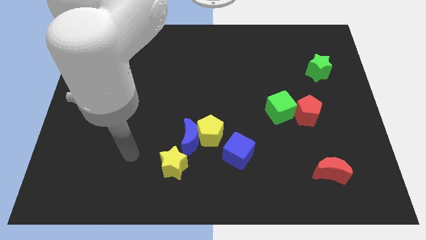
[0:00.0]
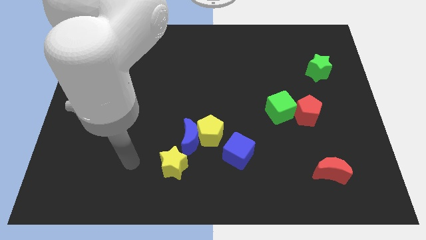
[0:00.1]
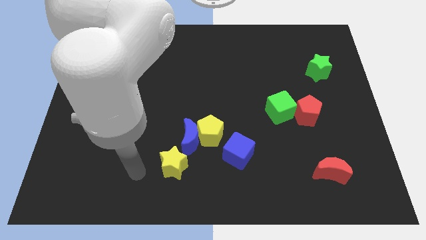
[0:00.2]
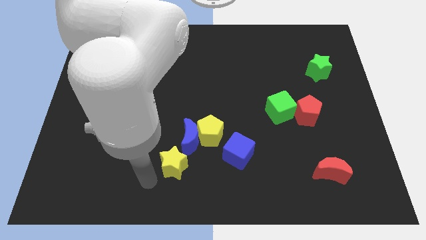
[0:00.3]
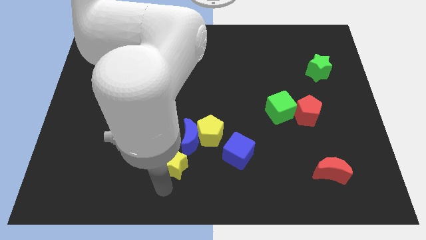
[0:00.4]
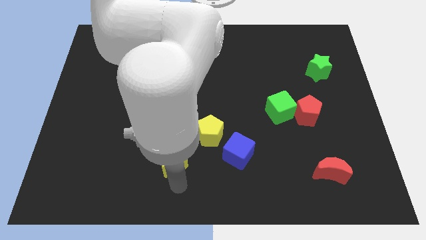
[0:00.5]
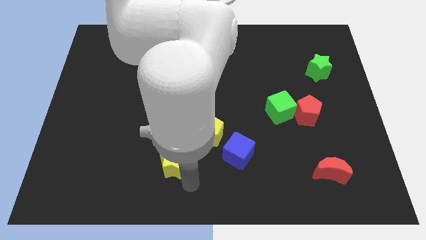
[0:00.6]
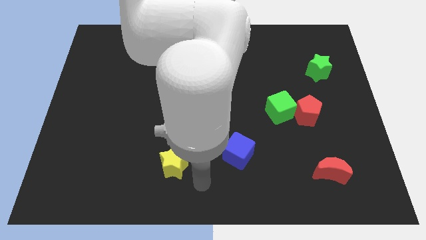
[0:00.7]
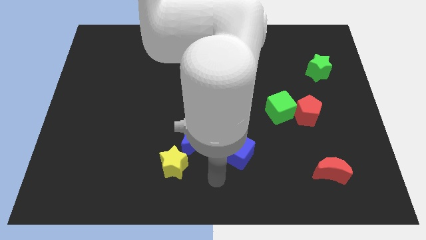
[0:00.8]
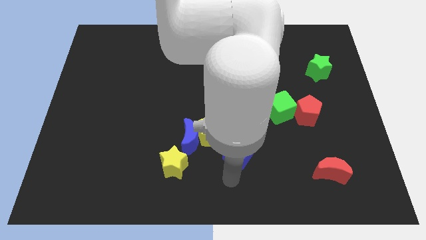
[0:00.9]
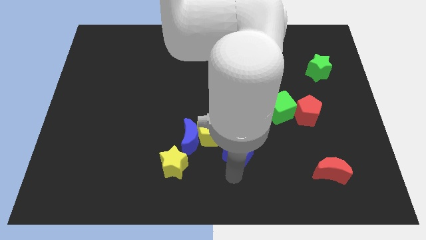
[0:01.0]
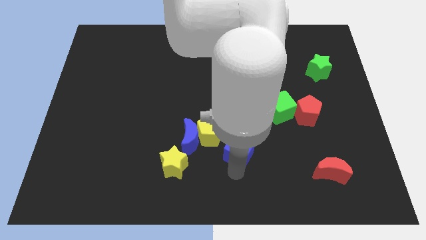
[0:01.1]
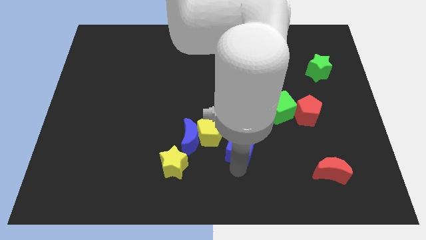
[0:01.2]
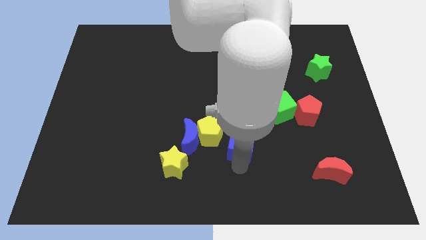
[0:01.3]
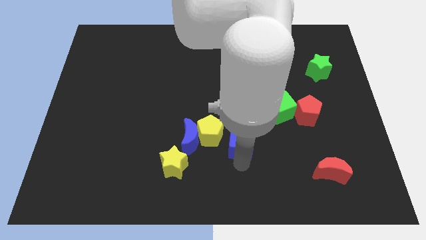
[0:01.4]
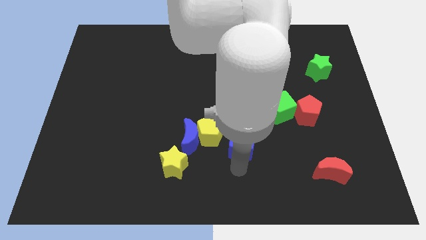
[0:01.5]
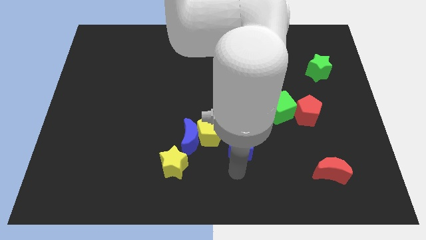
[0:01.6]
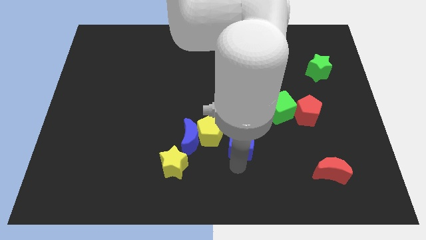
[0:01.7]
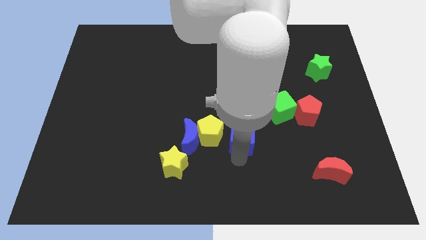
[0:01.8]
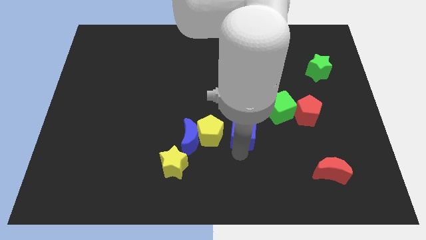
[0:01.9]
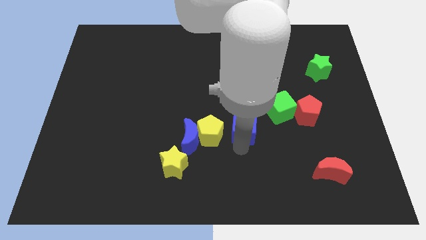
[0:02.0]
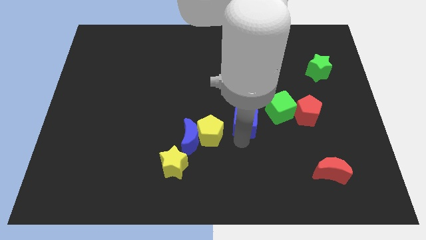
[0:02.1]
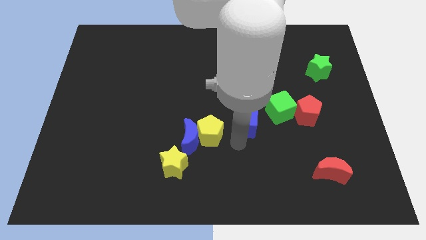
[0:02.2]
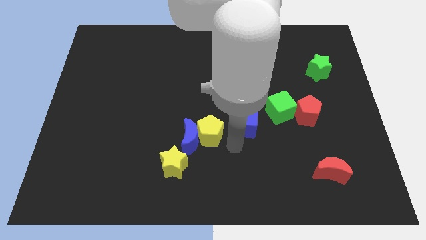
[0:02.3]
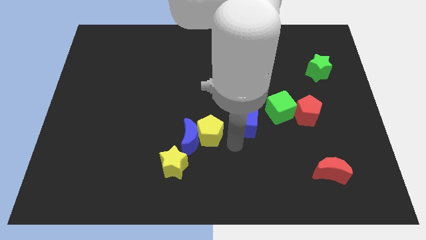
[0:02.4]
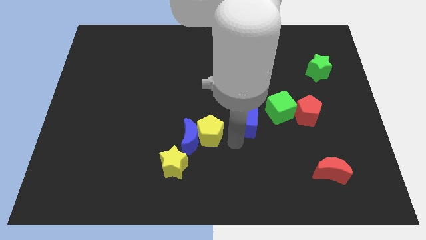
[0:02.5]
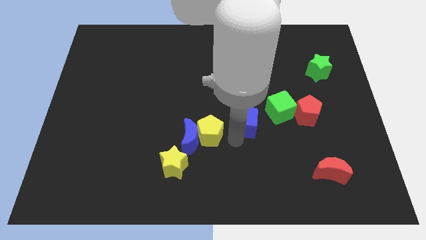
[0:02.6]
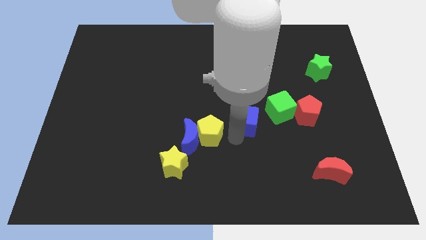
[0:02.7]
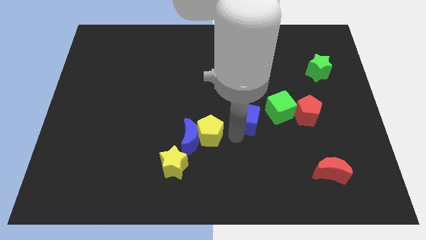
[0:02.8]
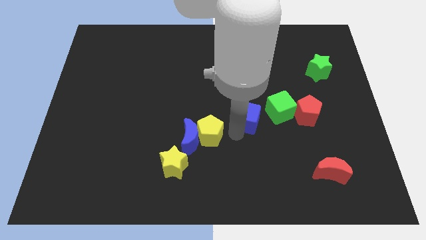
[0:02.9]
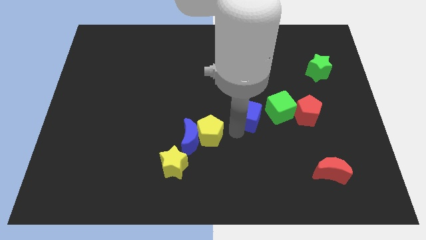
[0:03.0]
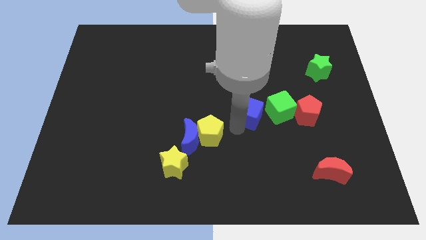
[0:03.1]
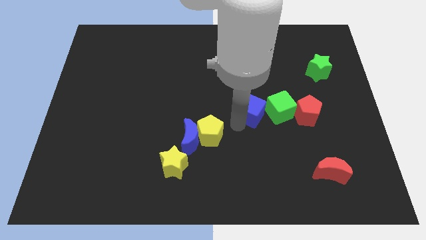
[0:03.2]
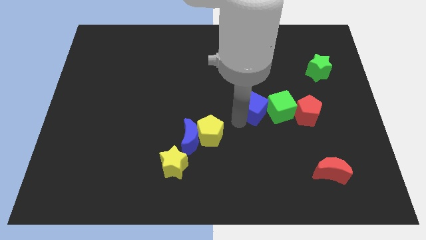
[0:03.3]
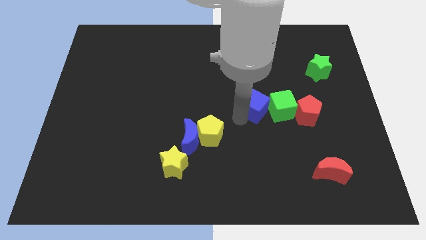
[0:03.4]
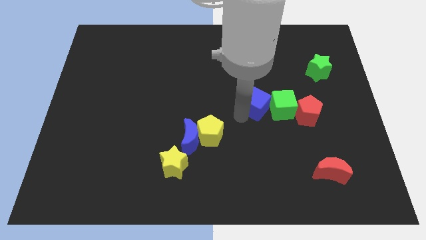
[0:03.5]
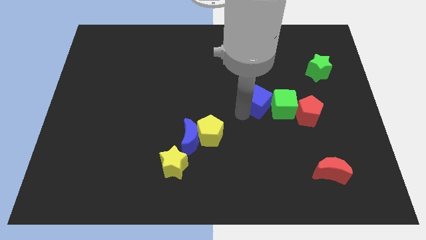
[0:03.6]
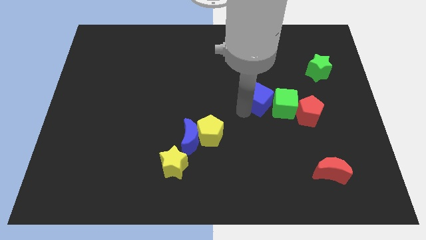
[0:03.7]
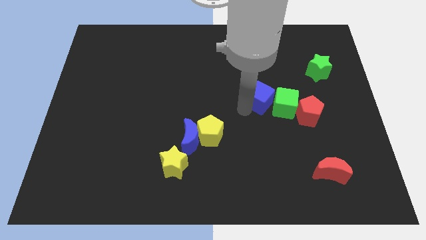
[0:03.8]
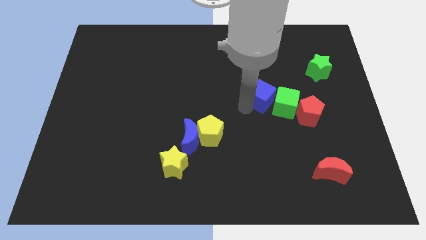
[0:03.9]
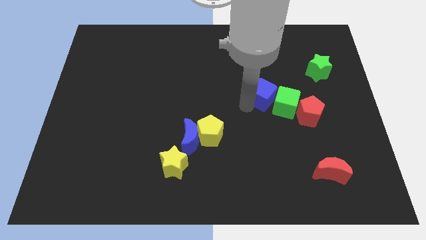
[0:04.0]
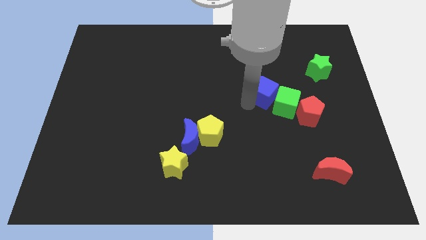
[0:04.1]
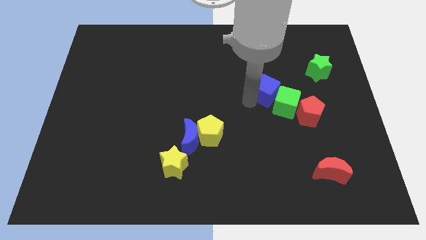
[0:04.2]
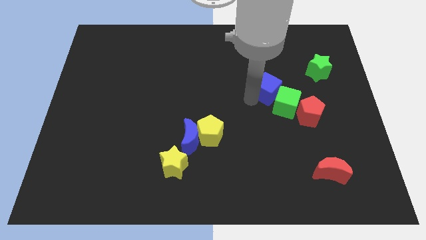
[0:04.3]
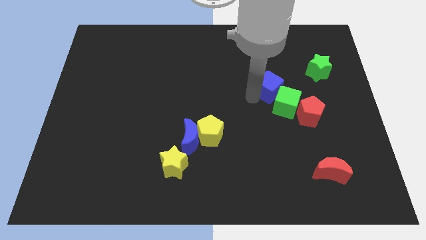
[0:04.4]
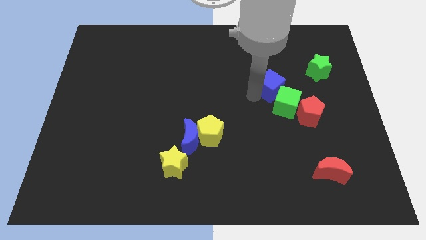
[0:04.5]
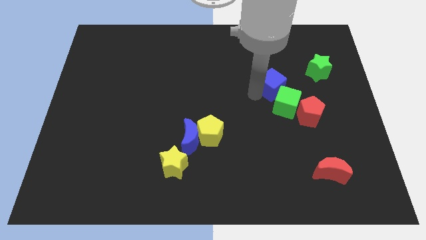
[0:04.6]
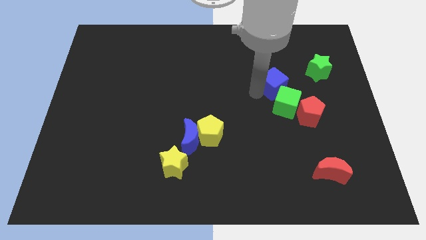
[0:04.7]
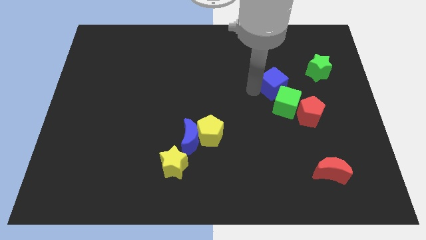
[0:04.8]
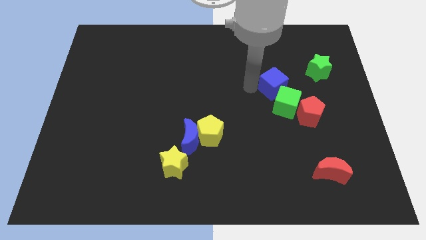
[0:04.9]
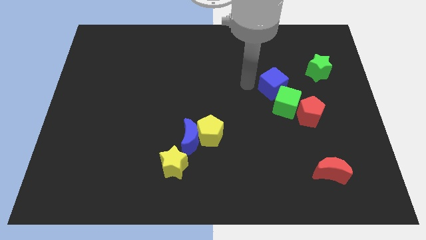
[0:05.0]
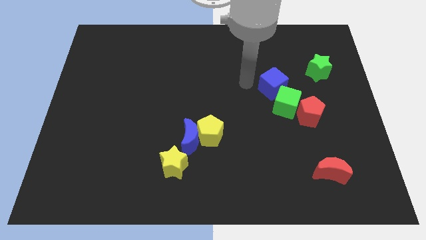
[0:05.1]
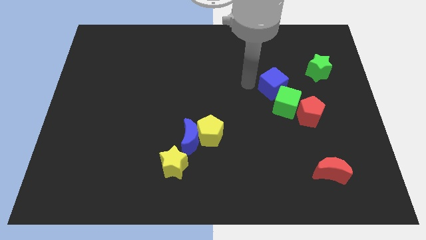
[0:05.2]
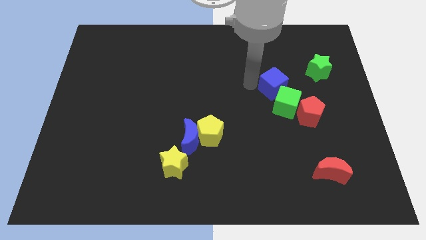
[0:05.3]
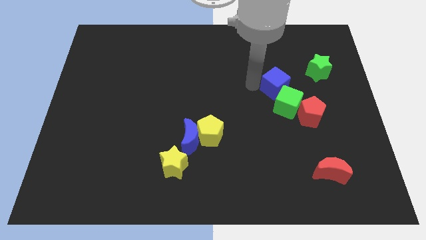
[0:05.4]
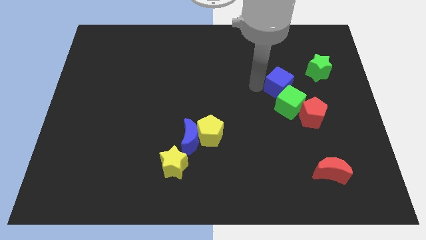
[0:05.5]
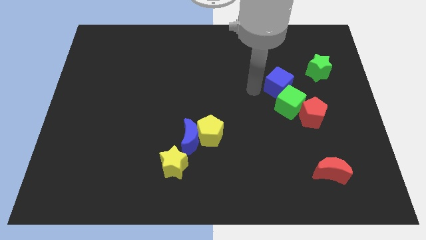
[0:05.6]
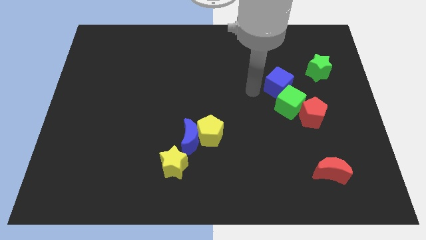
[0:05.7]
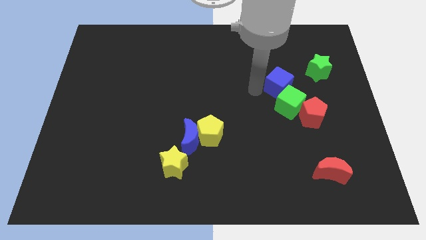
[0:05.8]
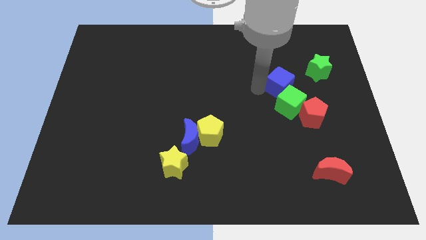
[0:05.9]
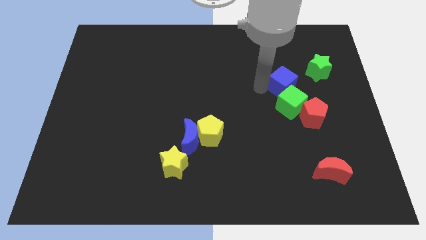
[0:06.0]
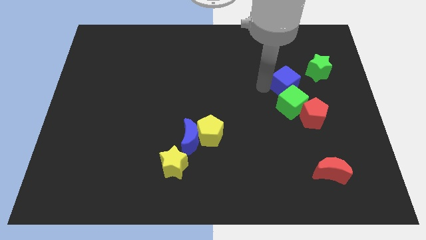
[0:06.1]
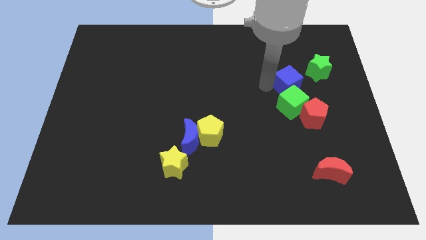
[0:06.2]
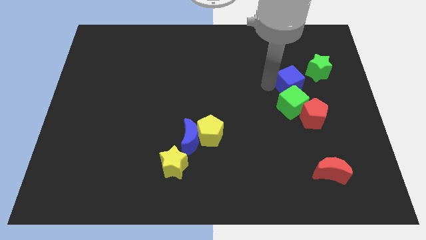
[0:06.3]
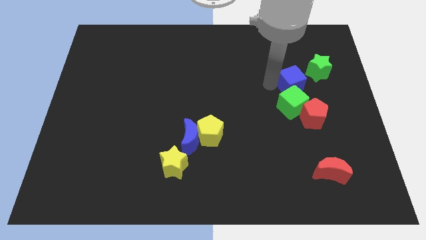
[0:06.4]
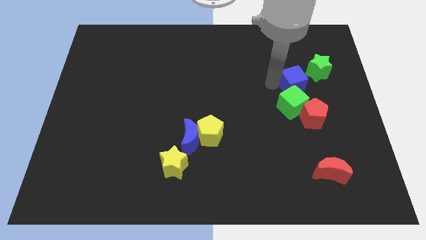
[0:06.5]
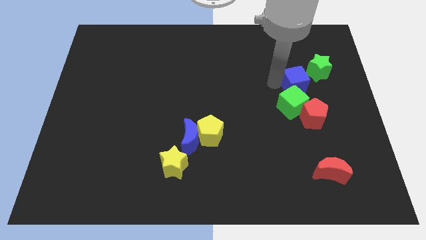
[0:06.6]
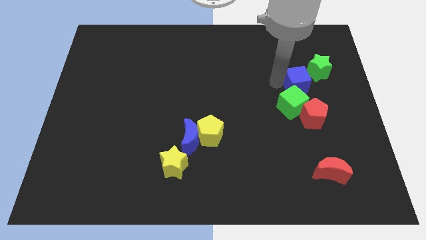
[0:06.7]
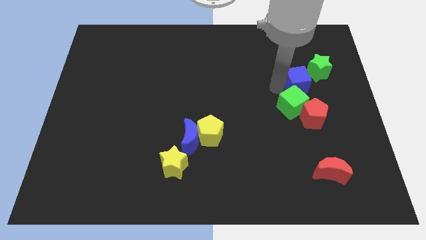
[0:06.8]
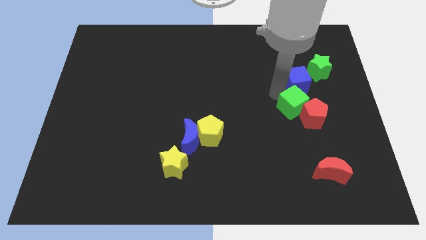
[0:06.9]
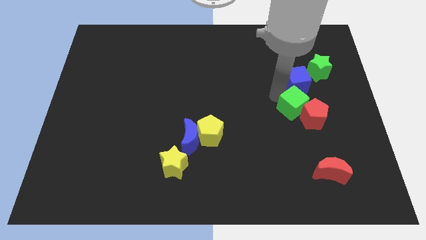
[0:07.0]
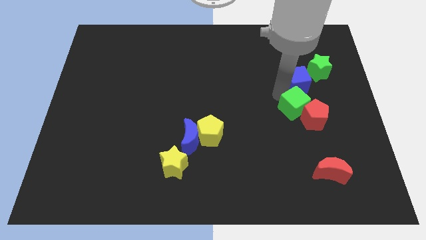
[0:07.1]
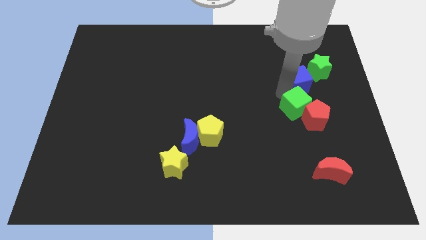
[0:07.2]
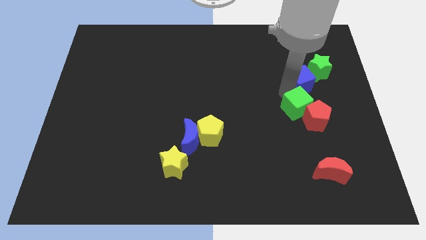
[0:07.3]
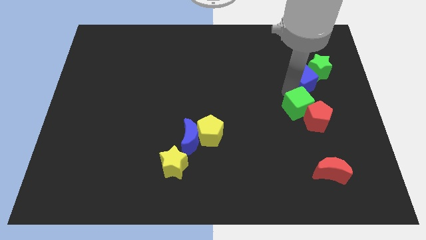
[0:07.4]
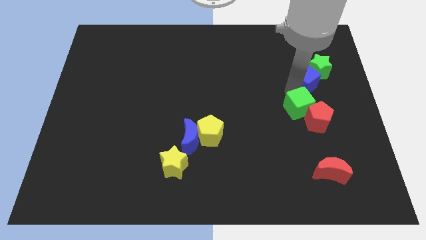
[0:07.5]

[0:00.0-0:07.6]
slide the blue cube to the green star
